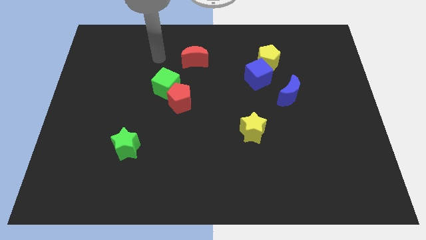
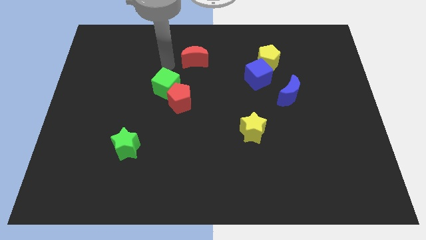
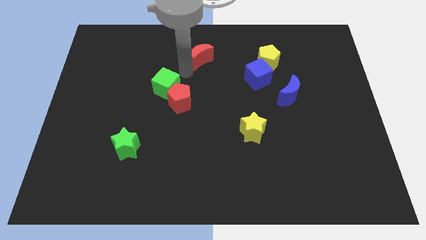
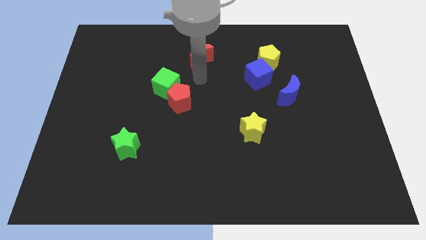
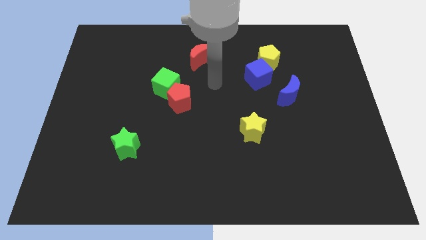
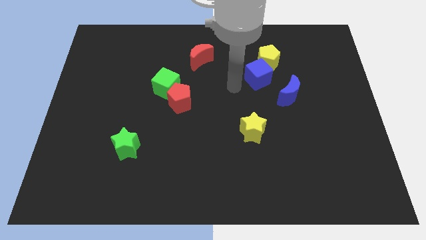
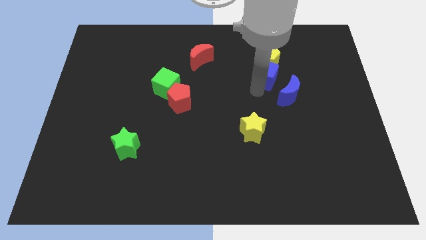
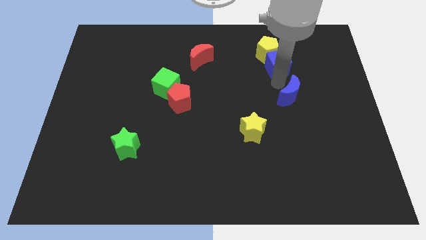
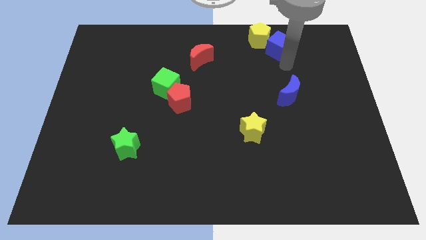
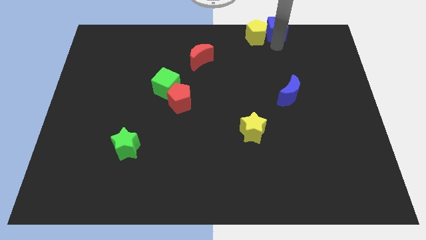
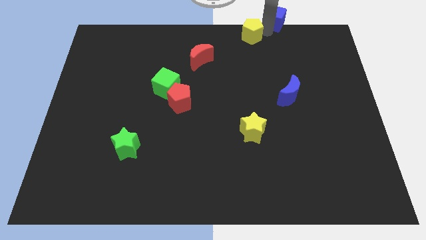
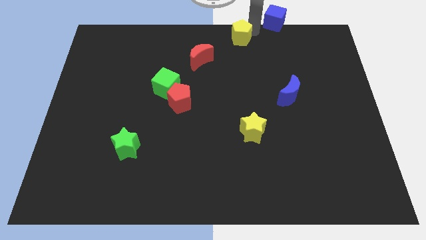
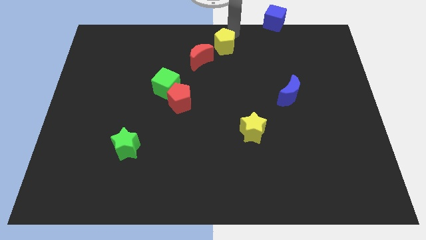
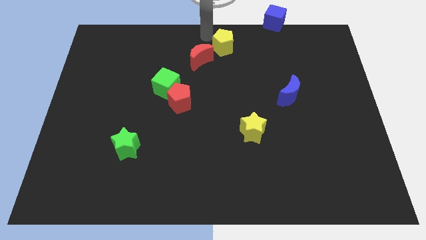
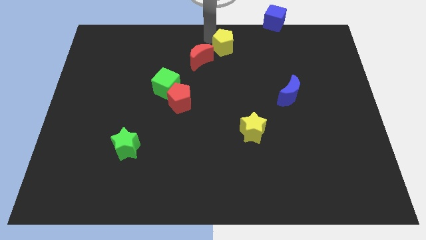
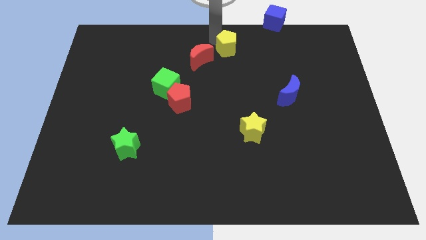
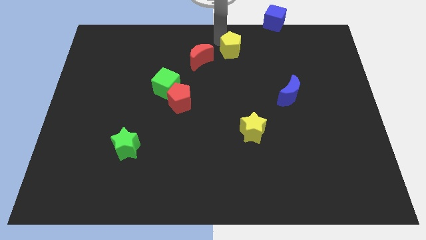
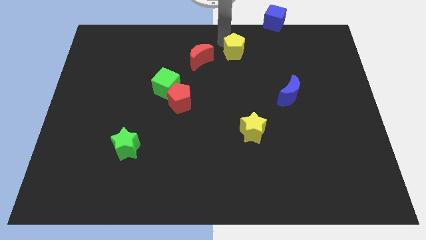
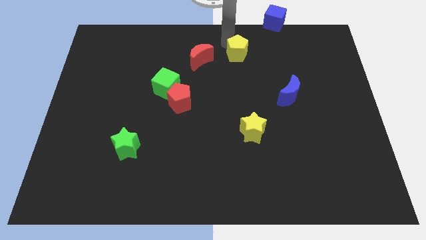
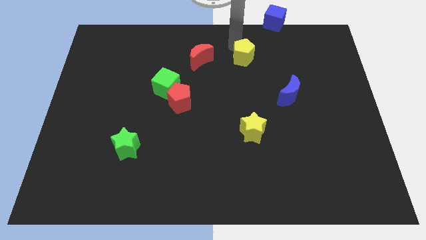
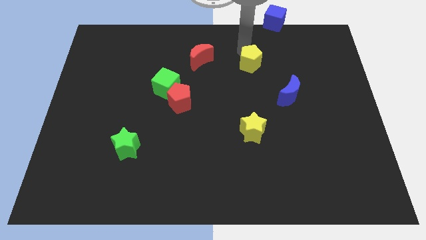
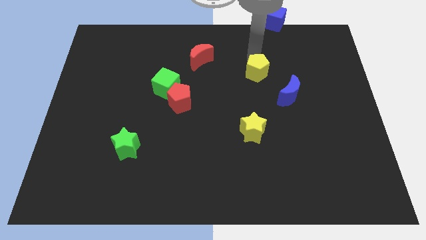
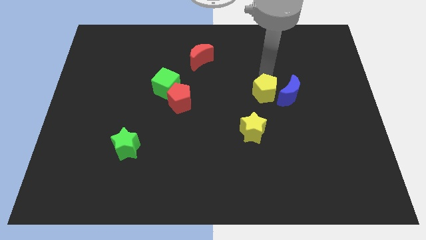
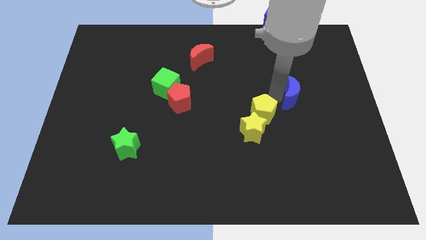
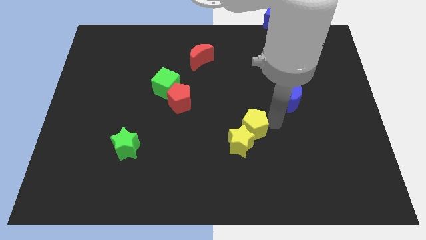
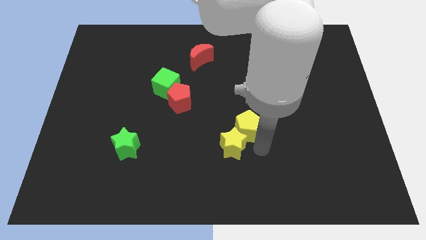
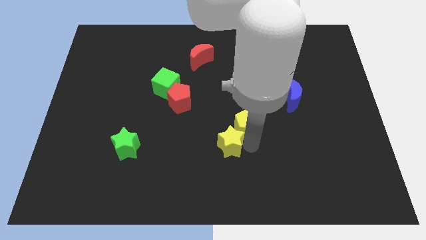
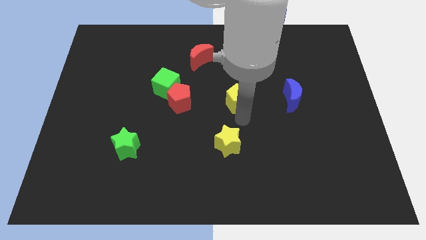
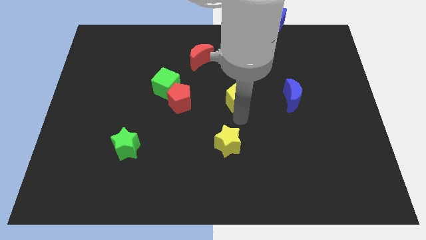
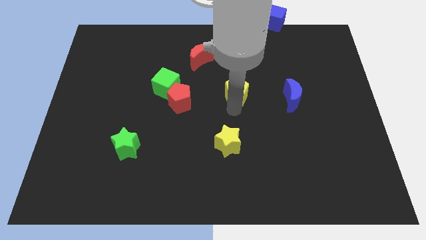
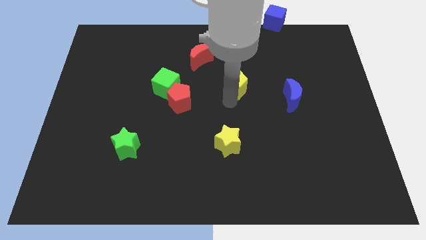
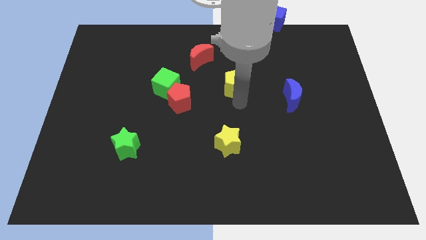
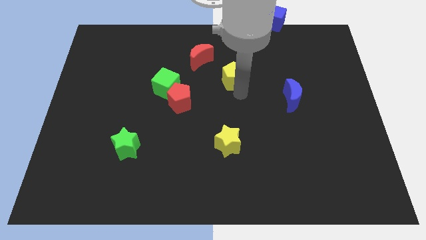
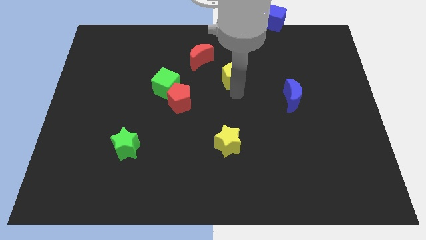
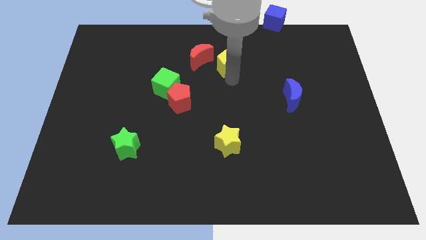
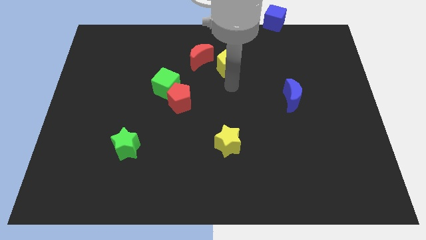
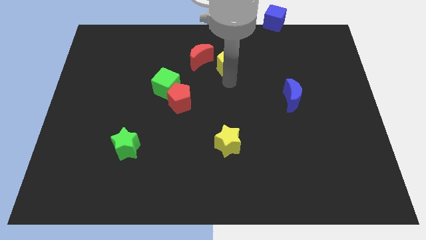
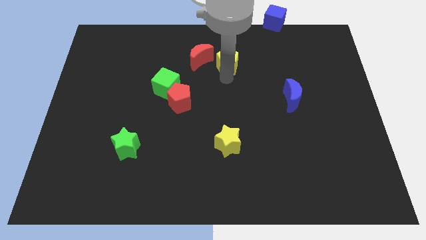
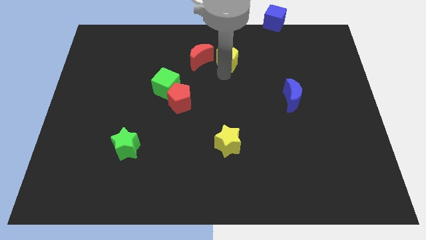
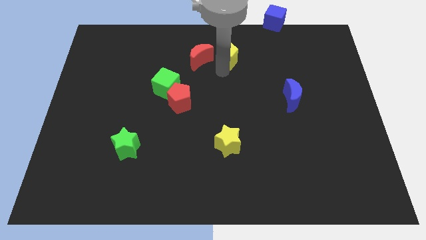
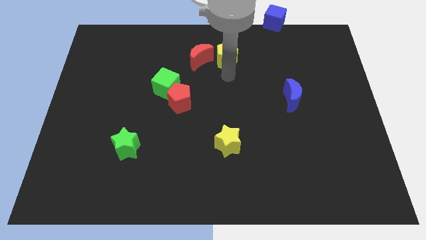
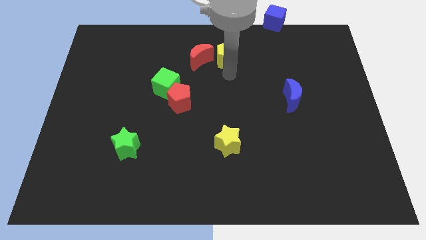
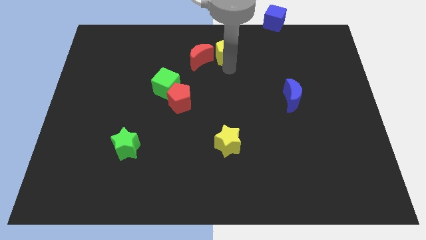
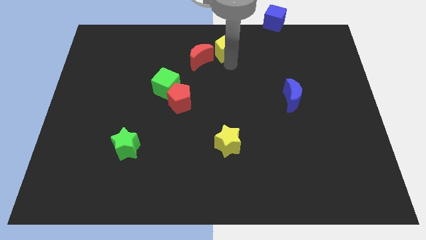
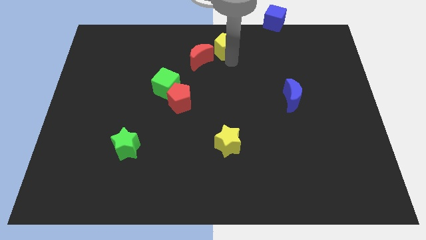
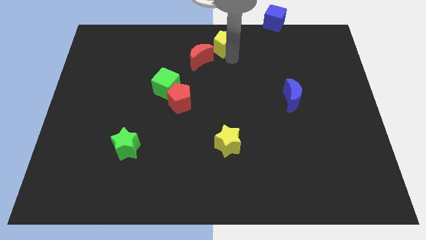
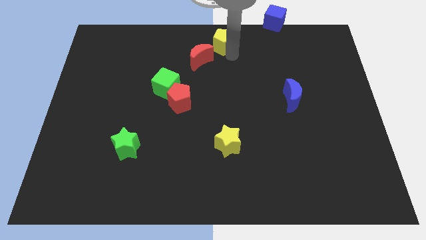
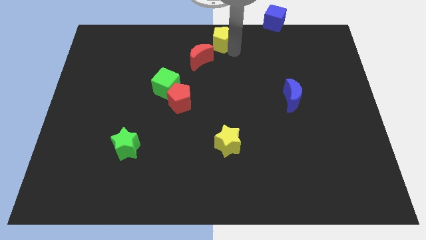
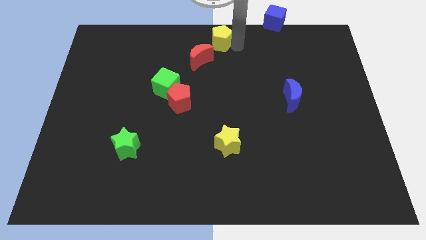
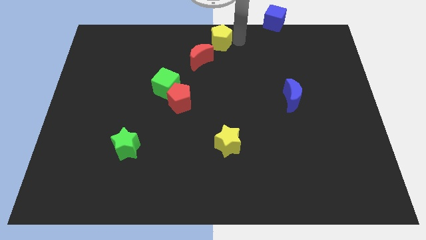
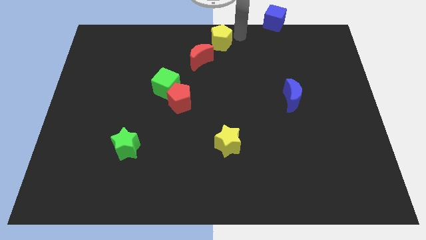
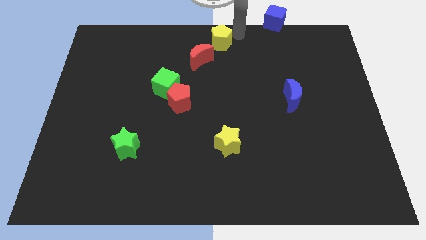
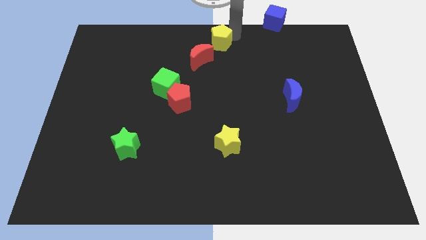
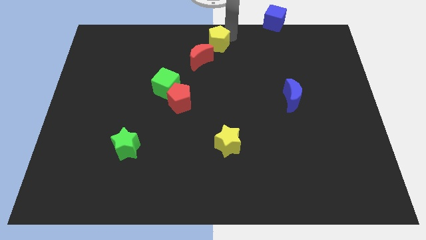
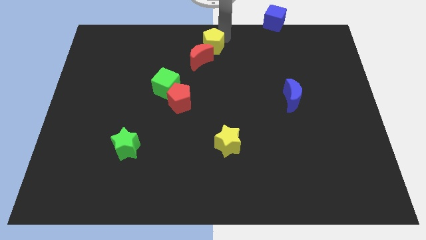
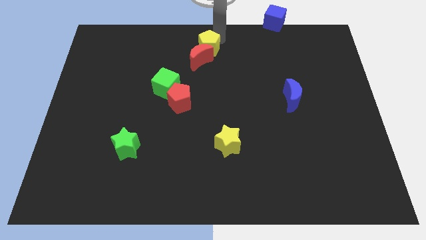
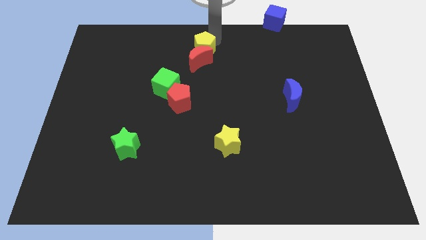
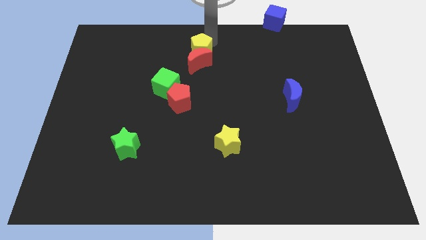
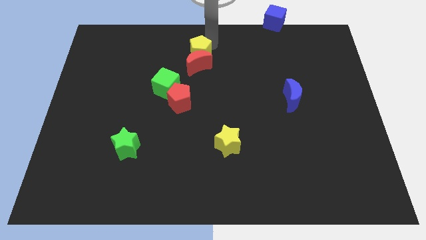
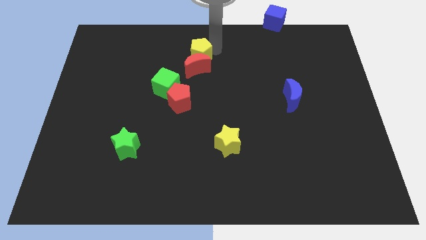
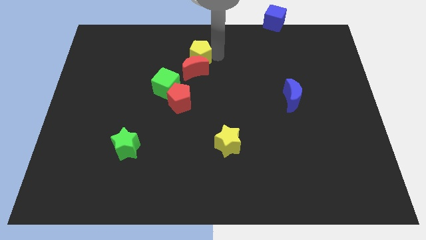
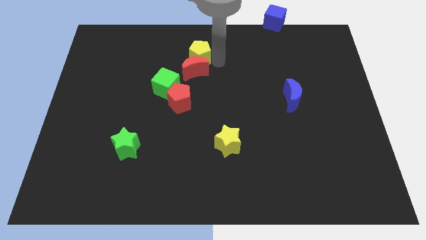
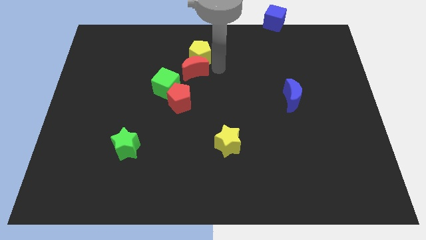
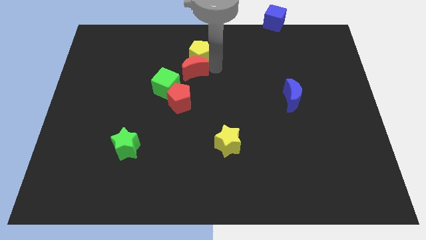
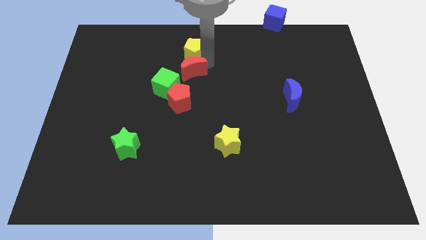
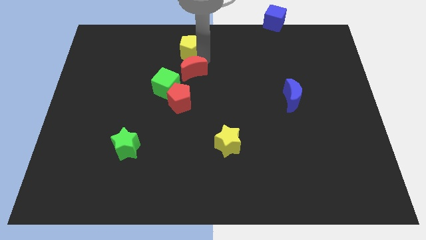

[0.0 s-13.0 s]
slide the yellow pentagon left

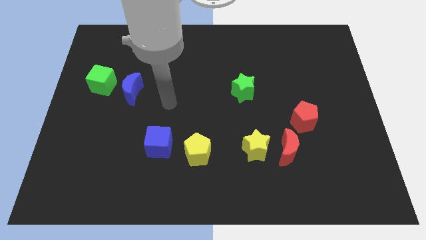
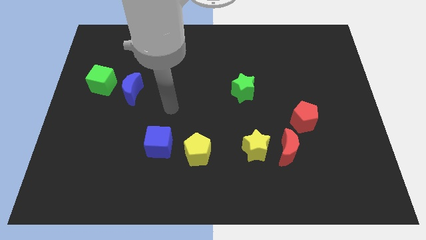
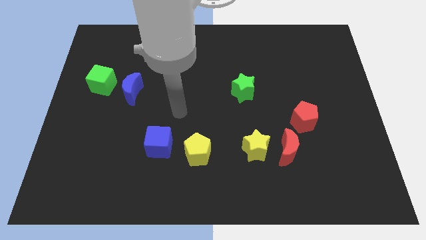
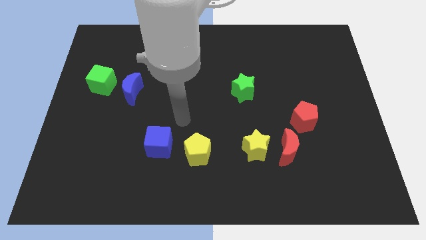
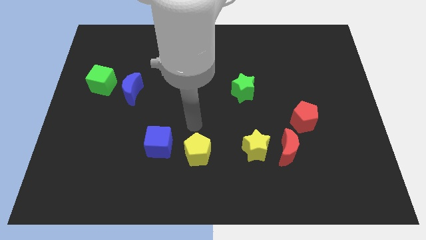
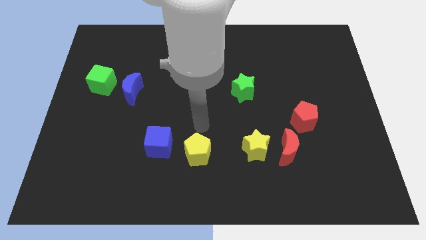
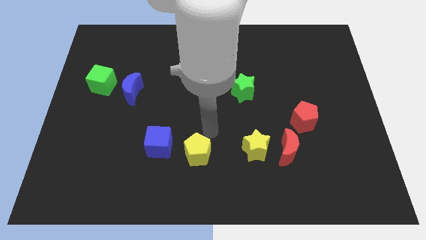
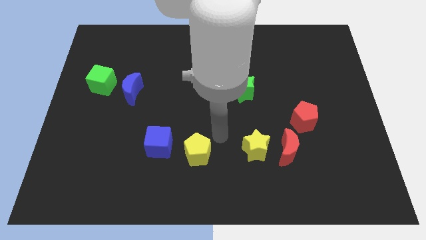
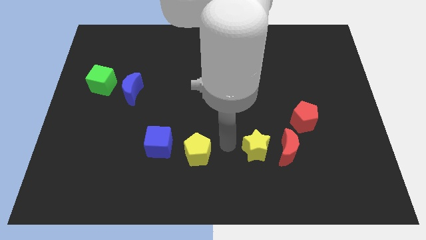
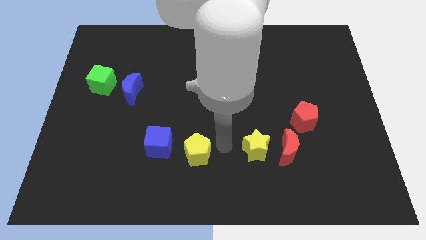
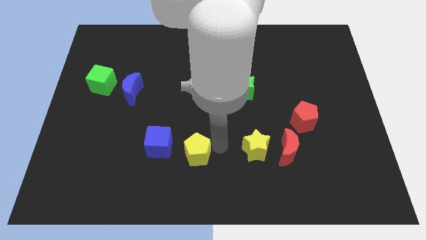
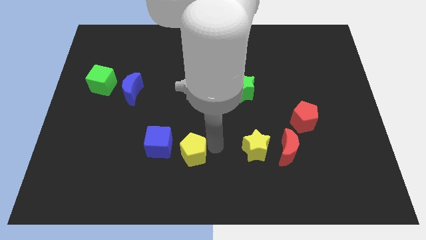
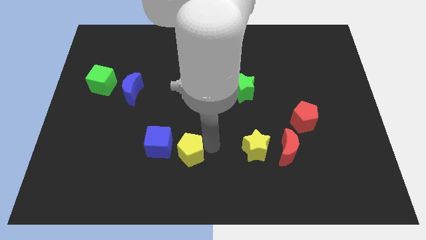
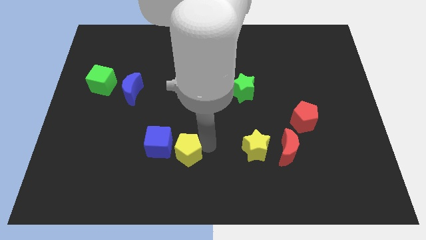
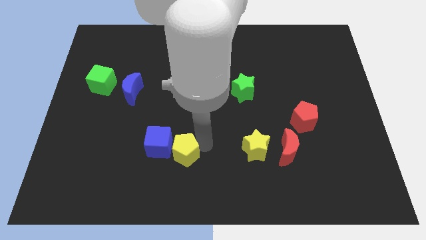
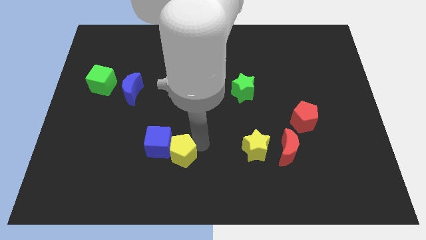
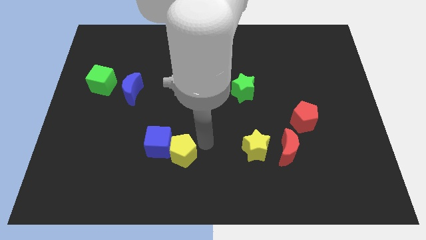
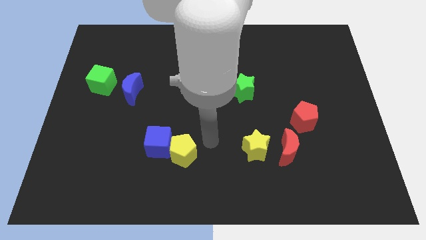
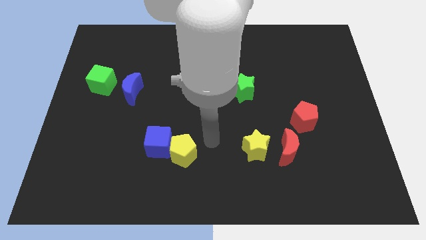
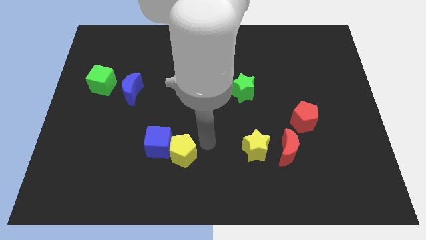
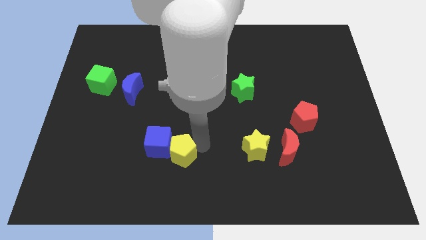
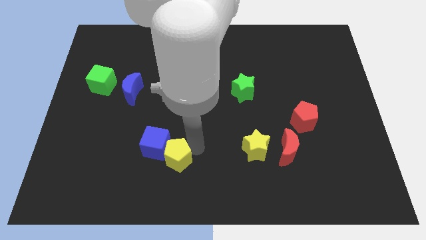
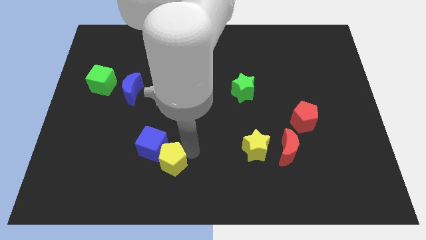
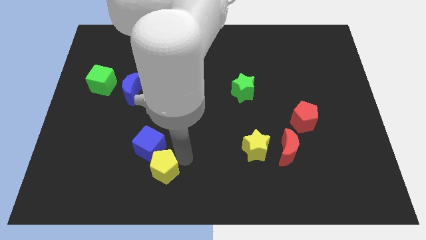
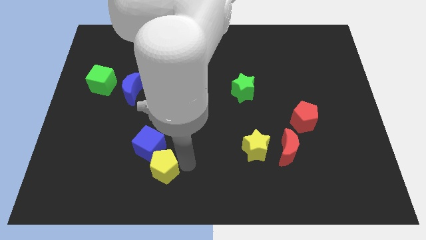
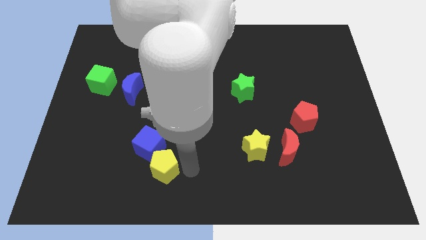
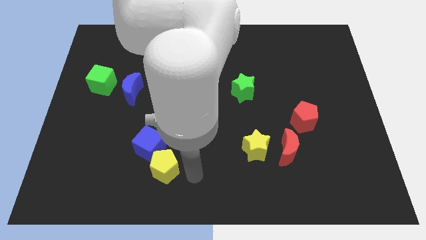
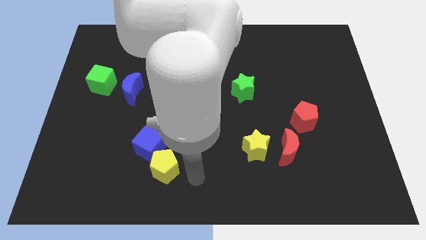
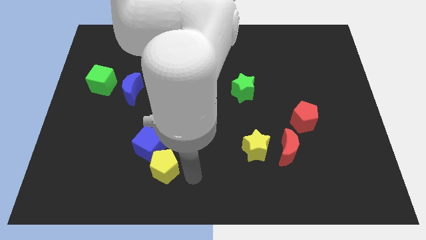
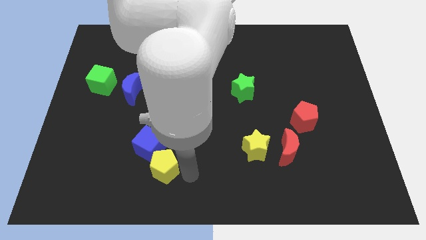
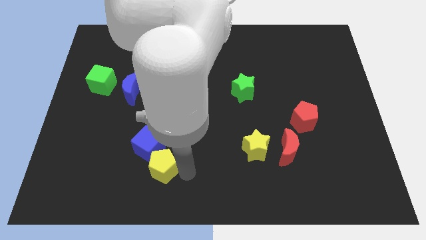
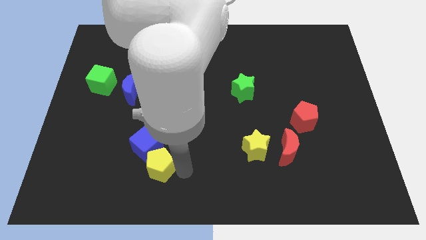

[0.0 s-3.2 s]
push the yellow pentagon left a little
